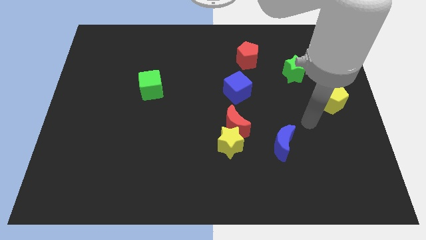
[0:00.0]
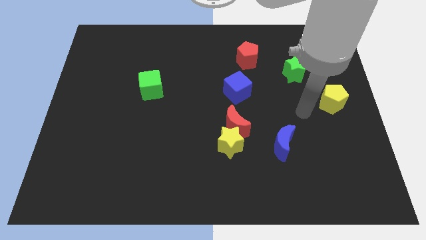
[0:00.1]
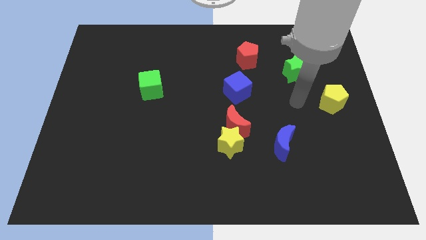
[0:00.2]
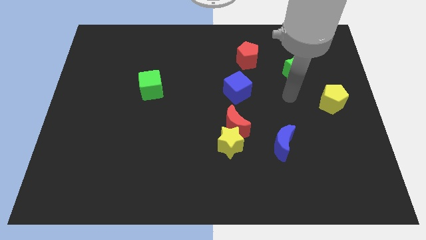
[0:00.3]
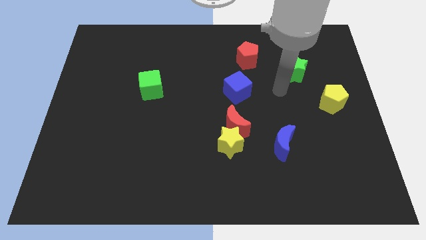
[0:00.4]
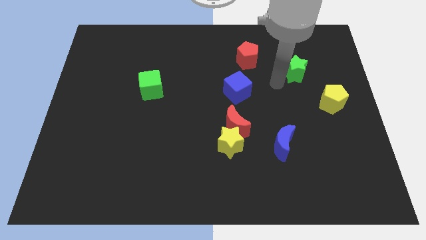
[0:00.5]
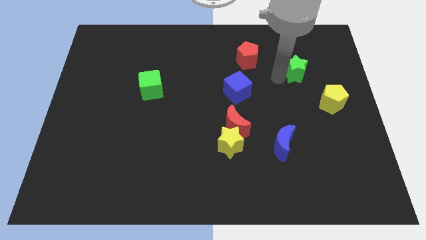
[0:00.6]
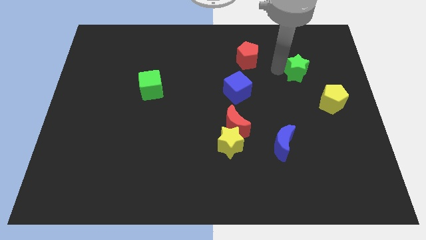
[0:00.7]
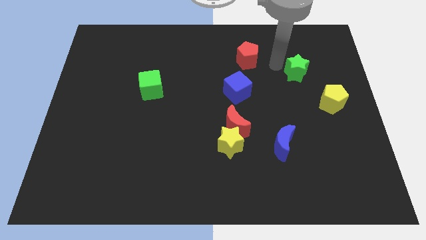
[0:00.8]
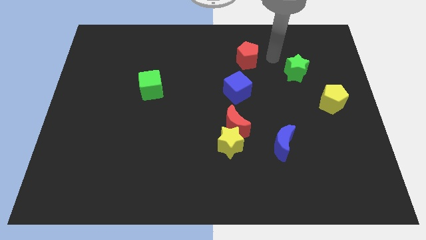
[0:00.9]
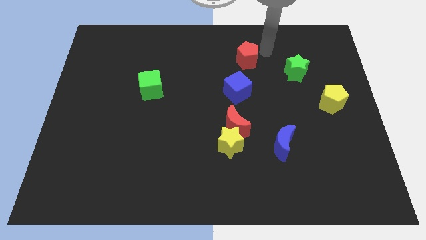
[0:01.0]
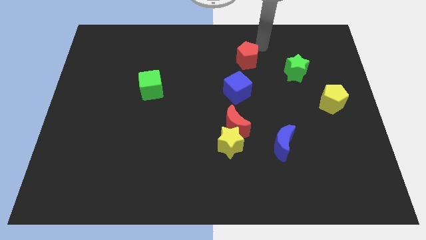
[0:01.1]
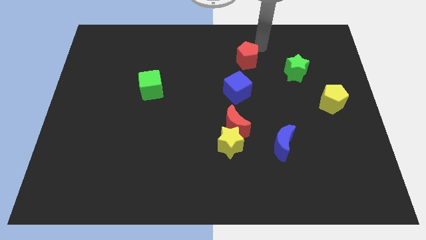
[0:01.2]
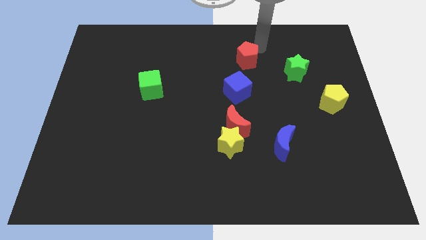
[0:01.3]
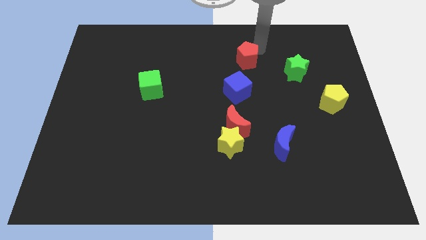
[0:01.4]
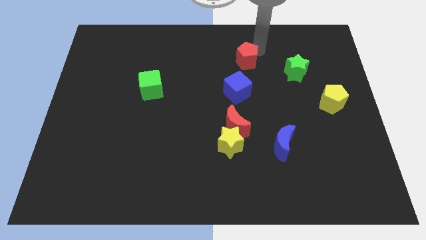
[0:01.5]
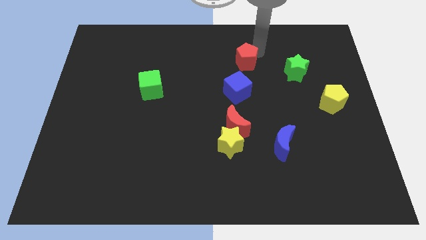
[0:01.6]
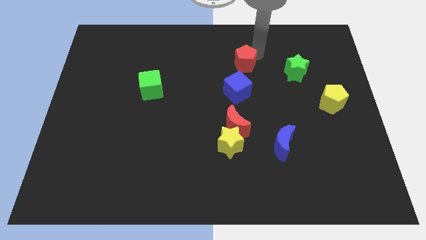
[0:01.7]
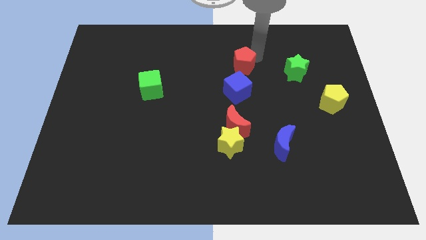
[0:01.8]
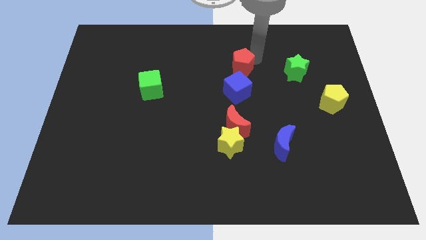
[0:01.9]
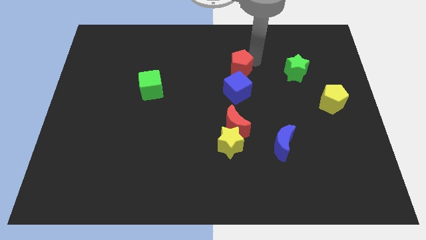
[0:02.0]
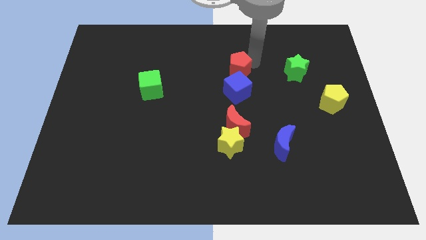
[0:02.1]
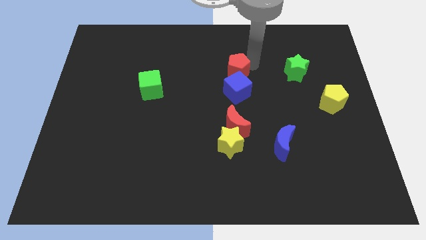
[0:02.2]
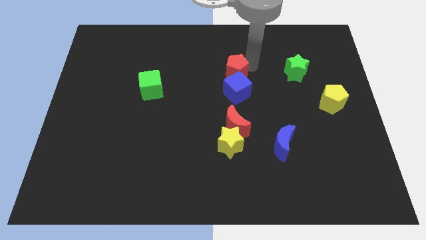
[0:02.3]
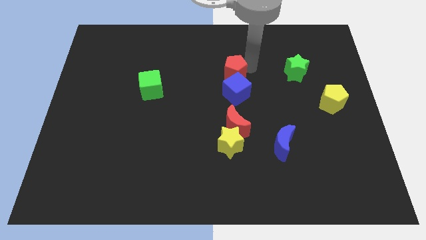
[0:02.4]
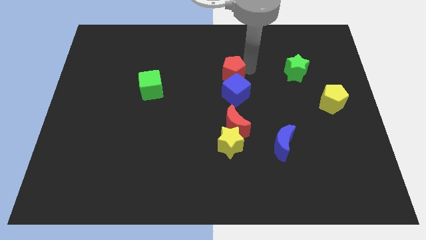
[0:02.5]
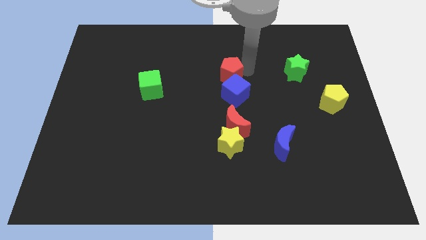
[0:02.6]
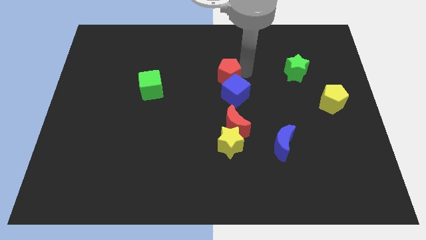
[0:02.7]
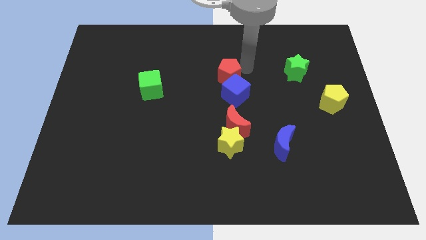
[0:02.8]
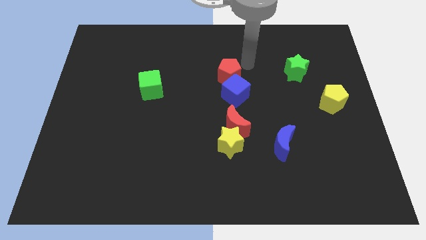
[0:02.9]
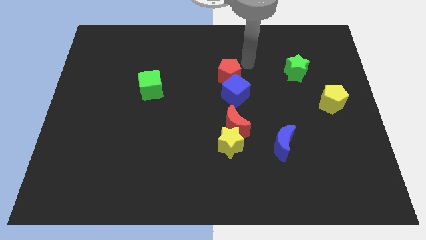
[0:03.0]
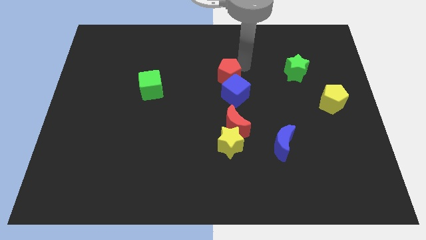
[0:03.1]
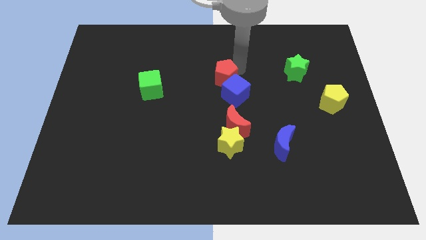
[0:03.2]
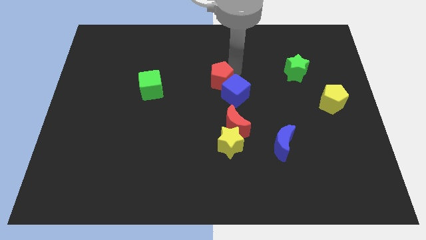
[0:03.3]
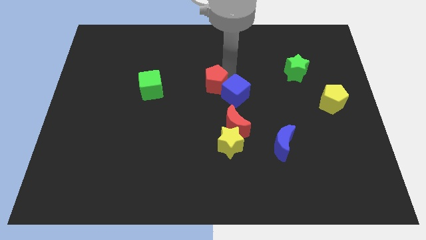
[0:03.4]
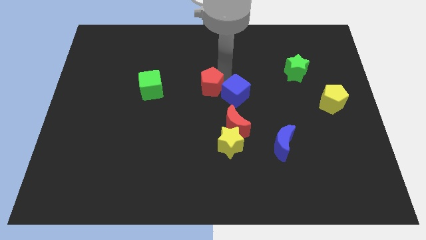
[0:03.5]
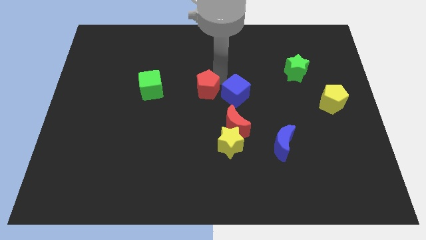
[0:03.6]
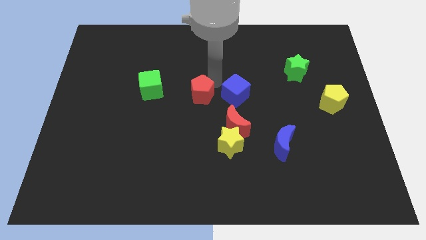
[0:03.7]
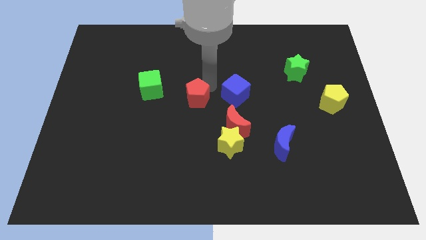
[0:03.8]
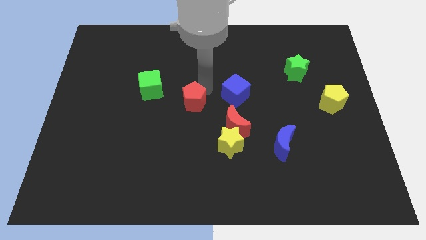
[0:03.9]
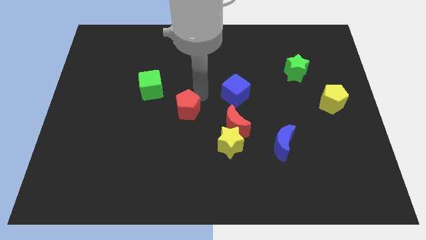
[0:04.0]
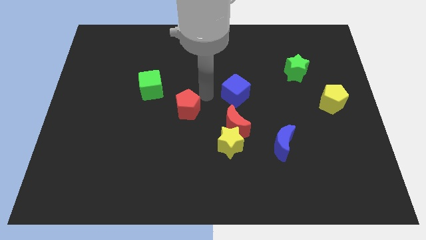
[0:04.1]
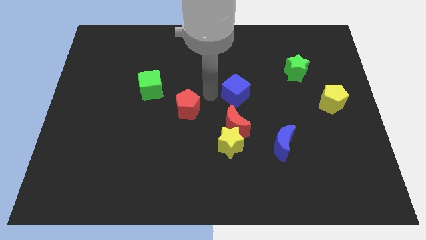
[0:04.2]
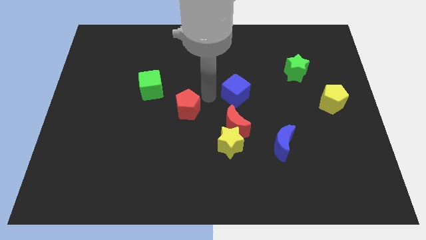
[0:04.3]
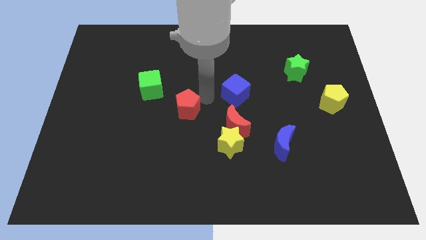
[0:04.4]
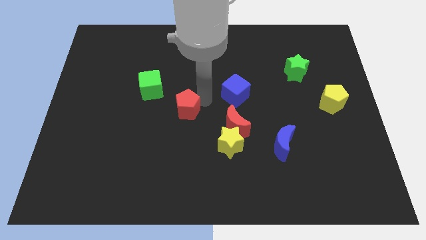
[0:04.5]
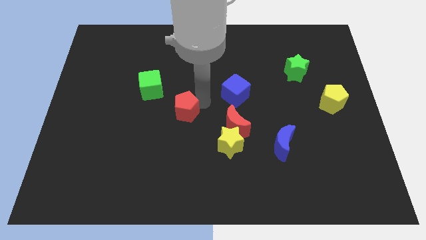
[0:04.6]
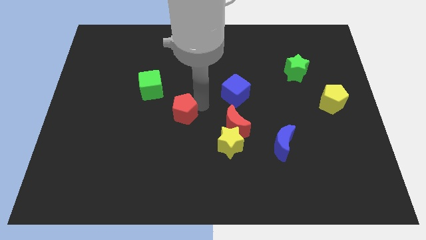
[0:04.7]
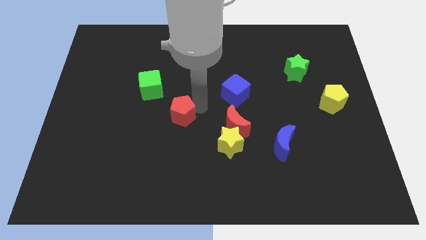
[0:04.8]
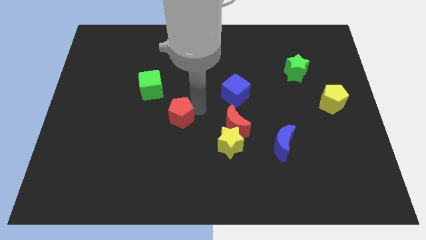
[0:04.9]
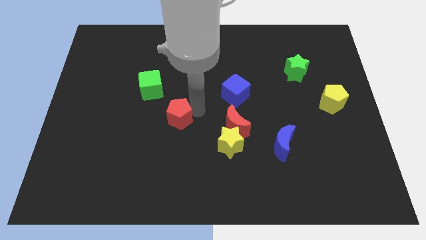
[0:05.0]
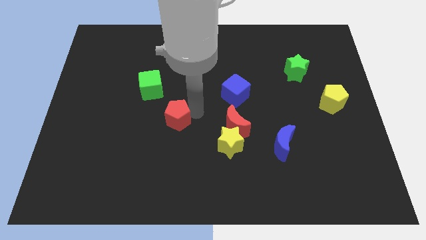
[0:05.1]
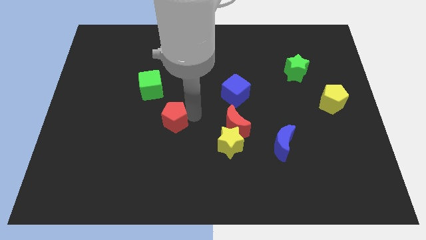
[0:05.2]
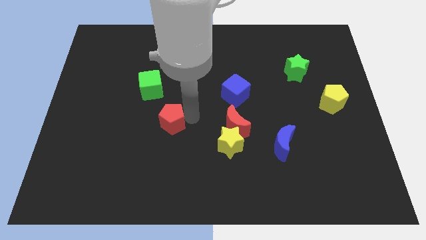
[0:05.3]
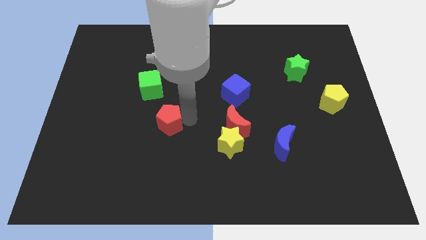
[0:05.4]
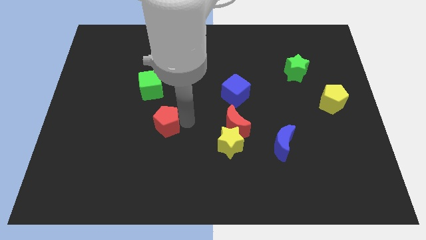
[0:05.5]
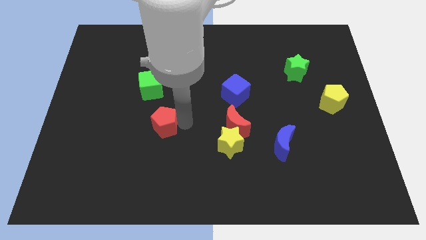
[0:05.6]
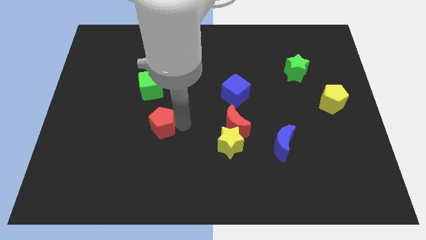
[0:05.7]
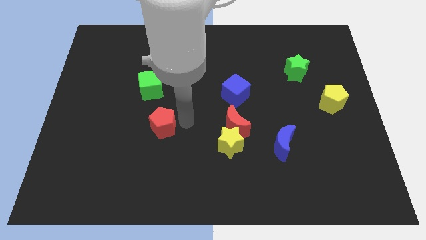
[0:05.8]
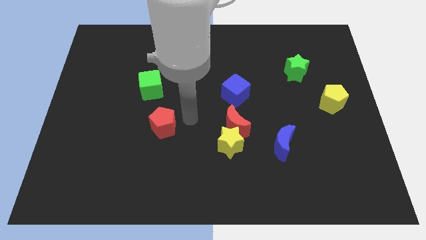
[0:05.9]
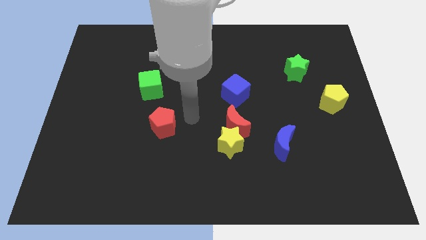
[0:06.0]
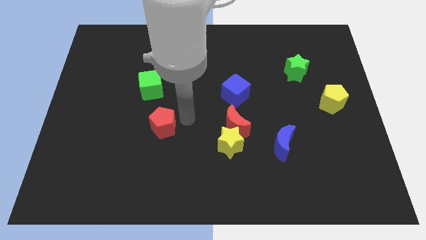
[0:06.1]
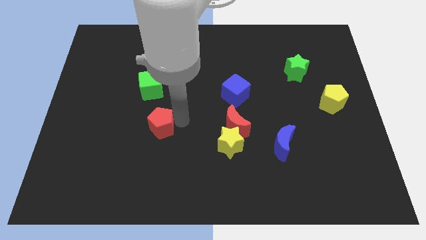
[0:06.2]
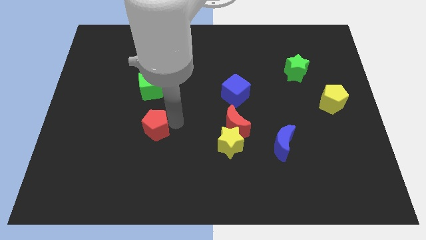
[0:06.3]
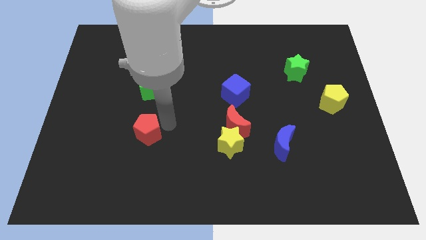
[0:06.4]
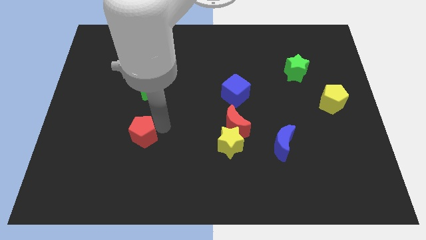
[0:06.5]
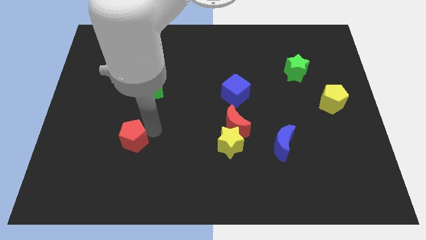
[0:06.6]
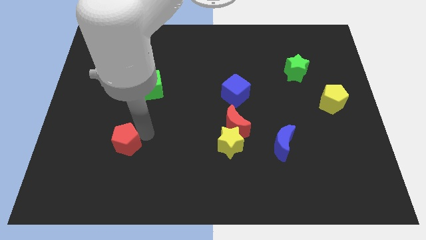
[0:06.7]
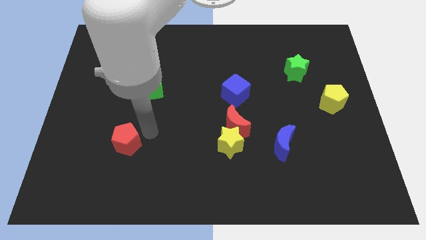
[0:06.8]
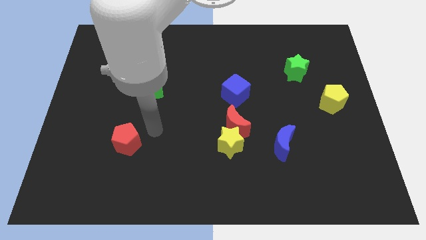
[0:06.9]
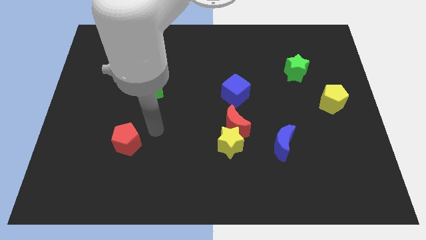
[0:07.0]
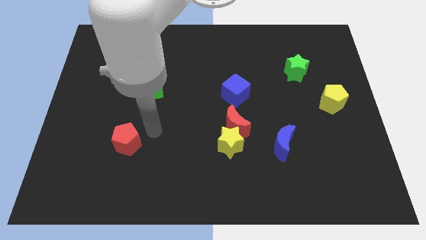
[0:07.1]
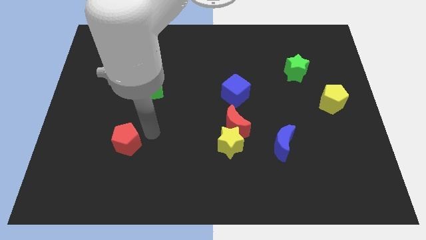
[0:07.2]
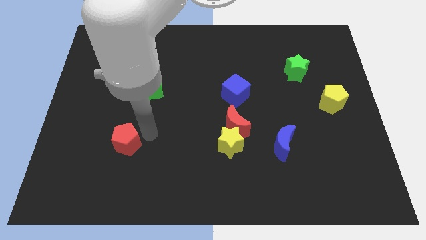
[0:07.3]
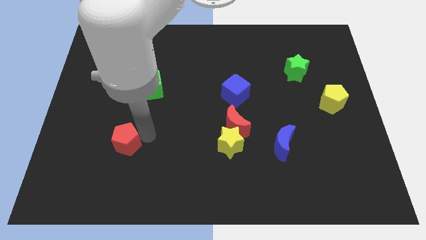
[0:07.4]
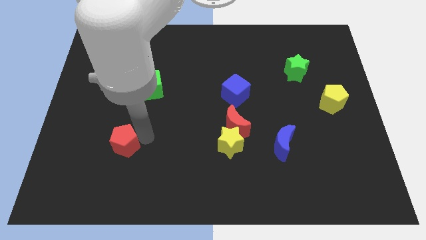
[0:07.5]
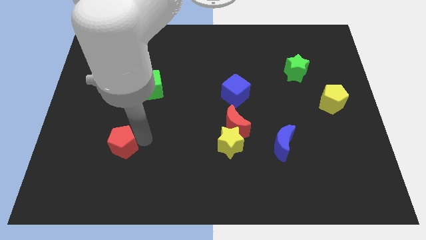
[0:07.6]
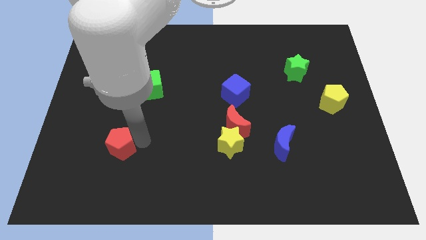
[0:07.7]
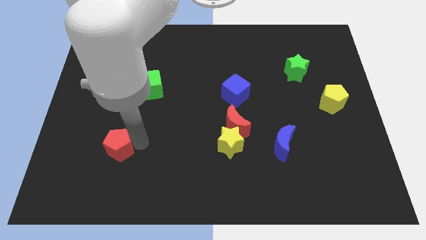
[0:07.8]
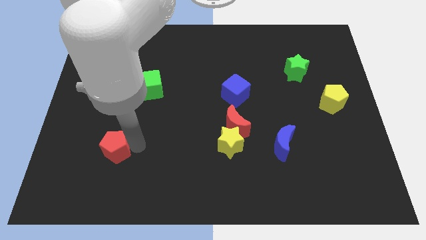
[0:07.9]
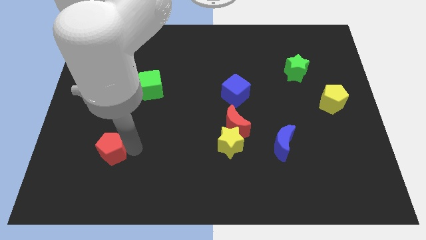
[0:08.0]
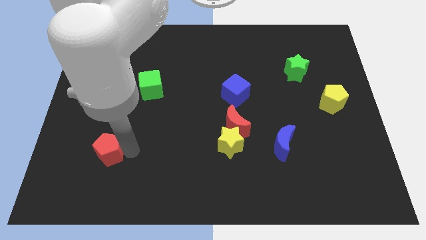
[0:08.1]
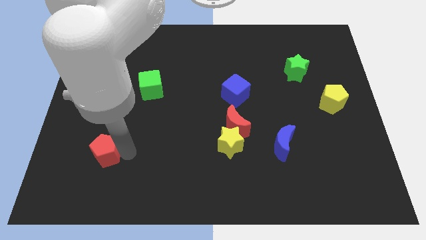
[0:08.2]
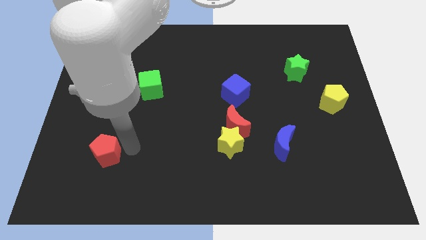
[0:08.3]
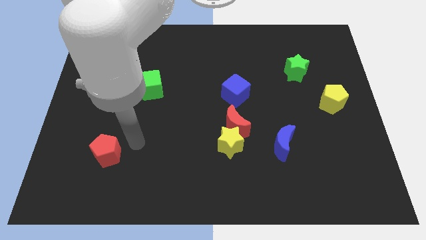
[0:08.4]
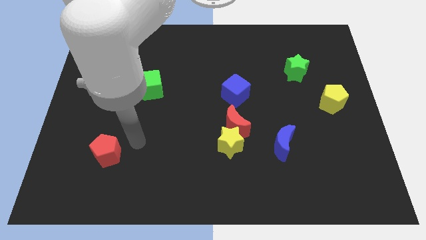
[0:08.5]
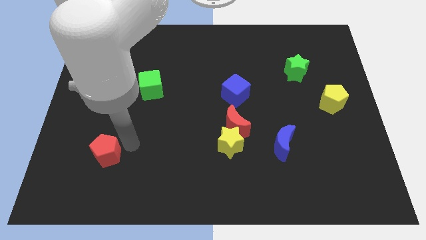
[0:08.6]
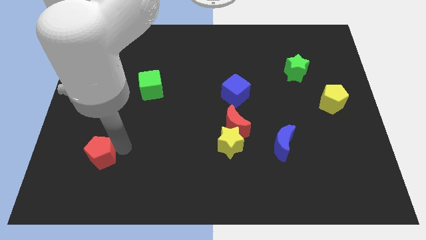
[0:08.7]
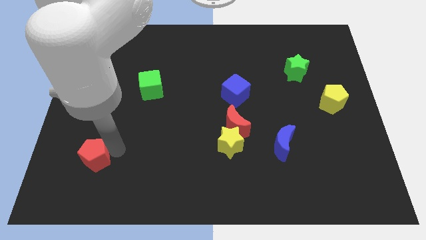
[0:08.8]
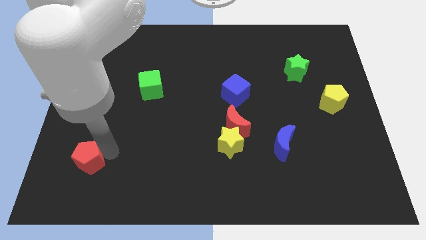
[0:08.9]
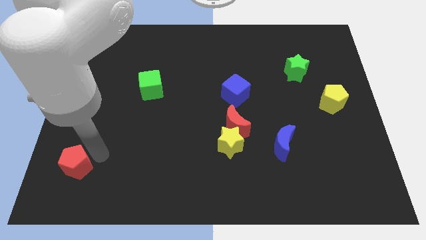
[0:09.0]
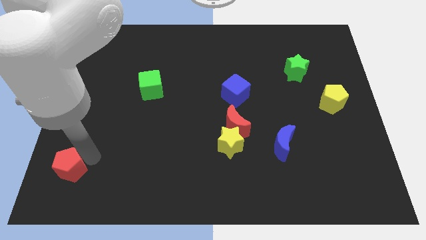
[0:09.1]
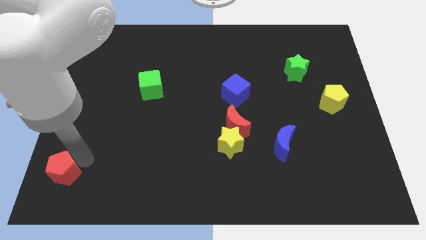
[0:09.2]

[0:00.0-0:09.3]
move the red pentagon to the lower left corner
